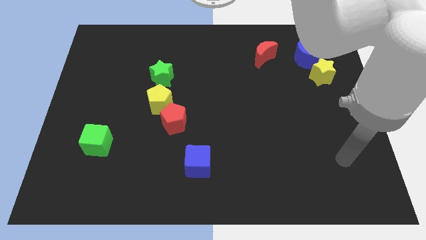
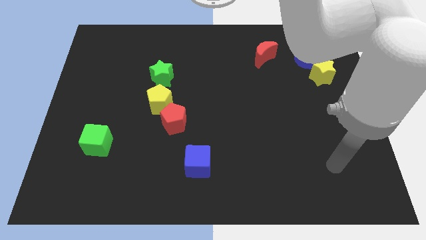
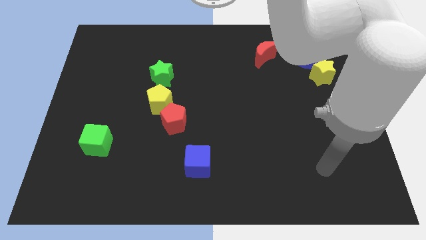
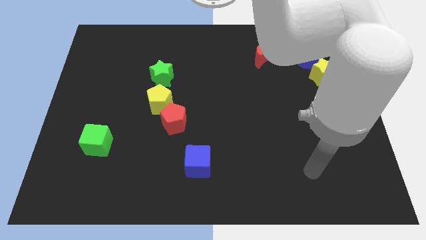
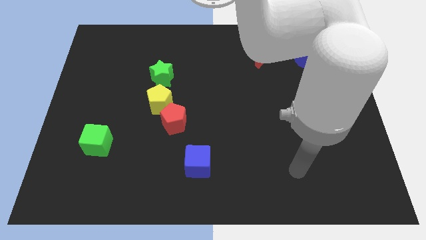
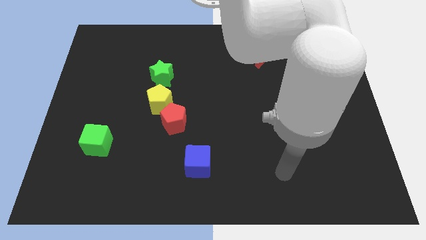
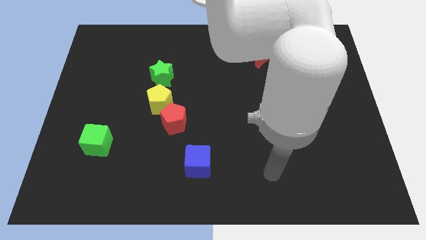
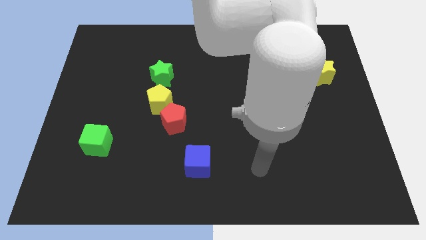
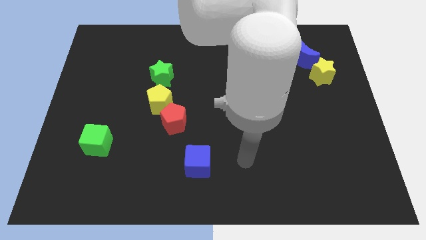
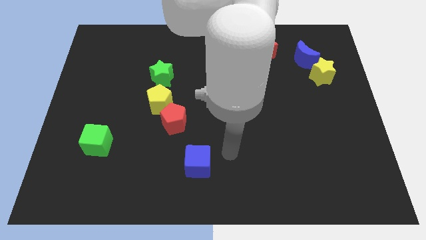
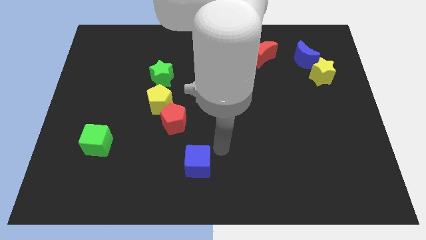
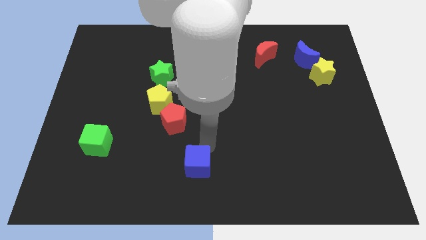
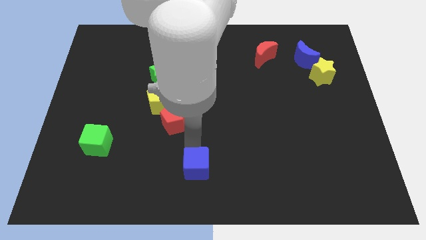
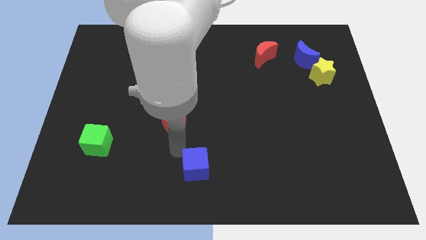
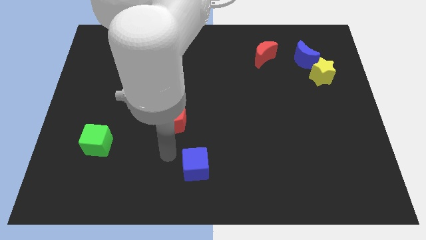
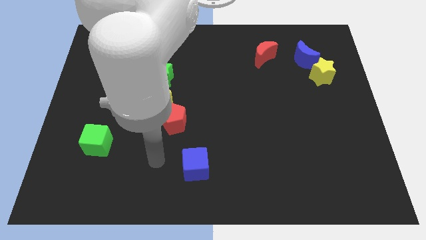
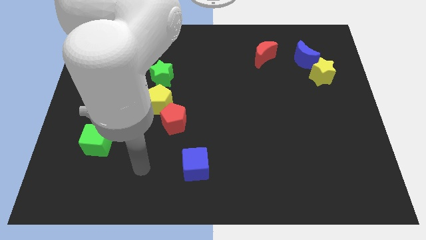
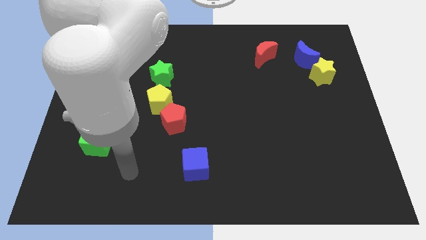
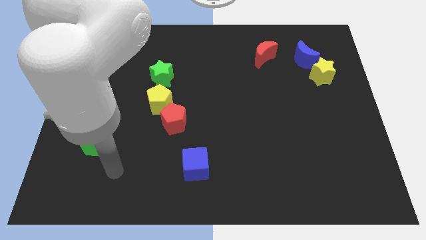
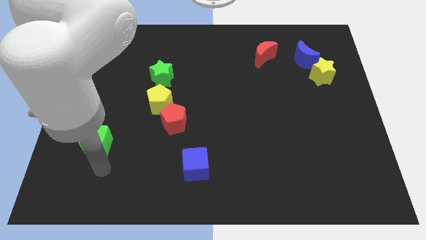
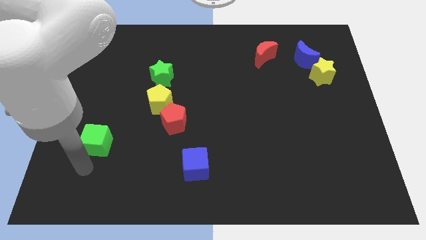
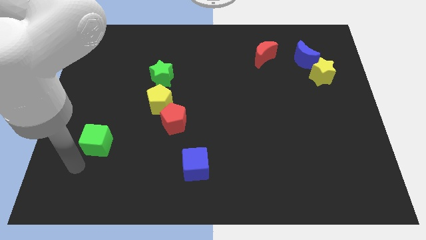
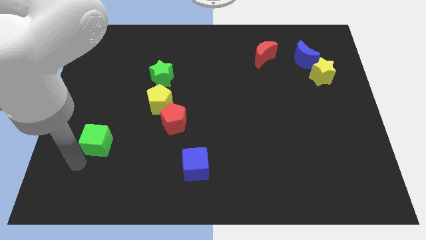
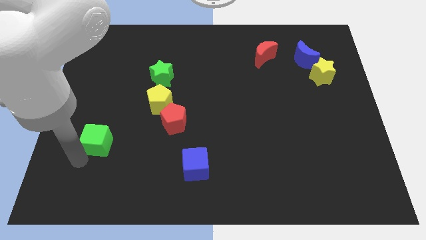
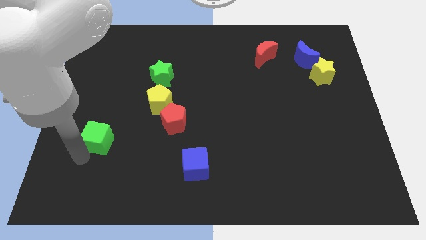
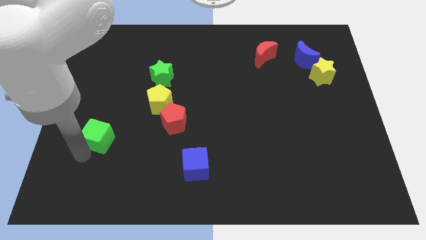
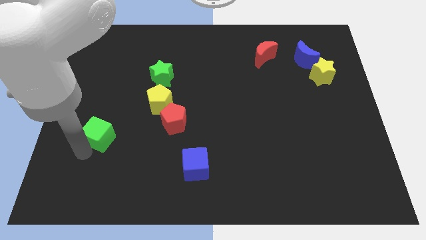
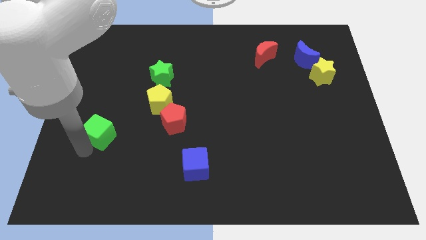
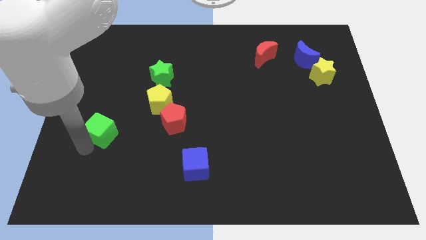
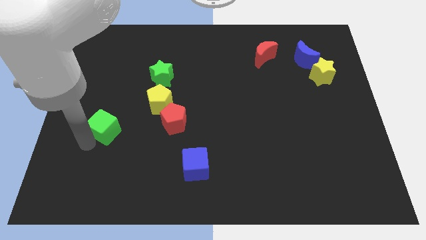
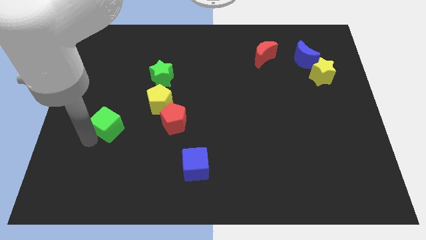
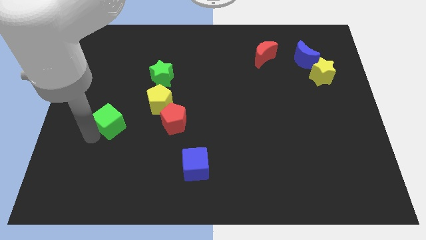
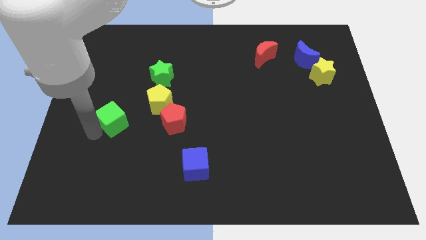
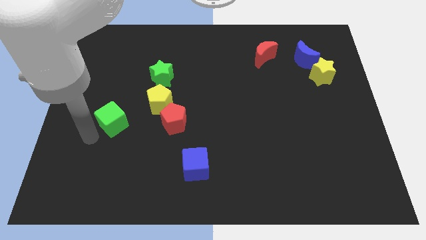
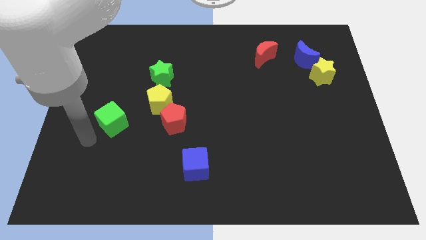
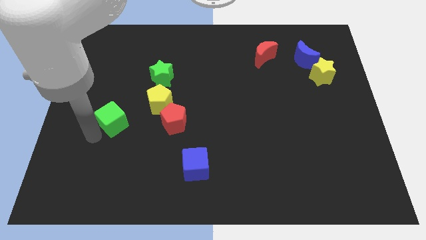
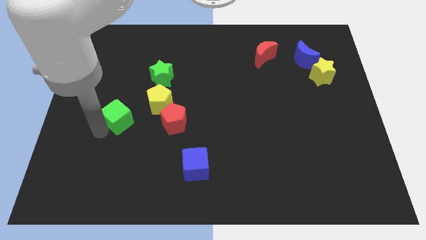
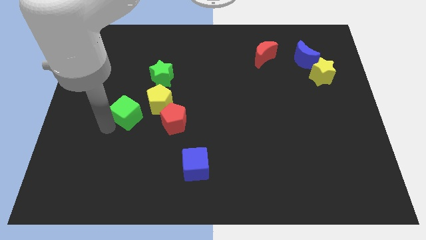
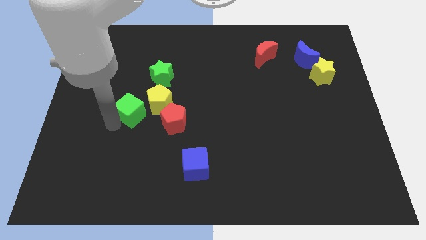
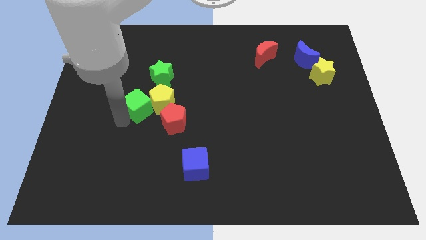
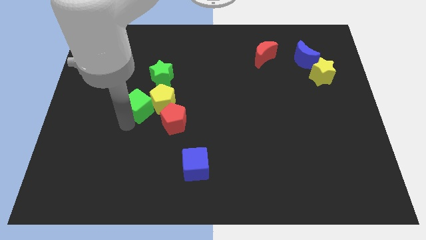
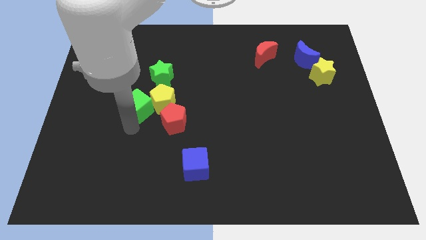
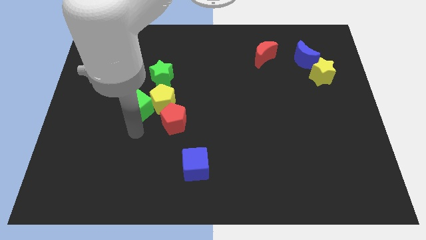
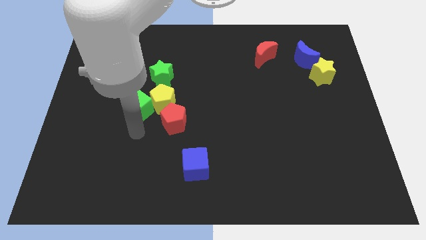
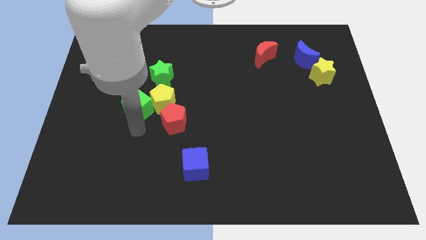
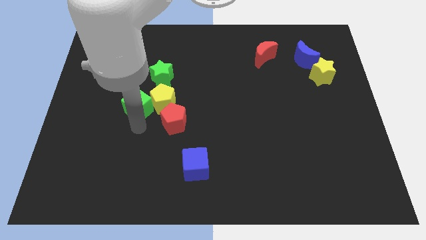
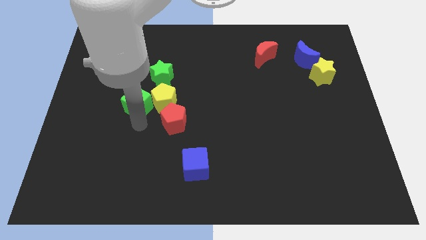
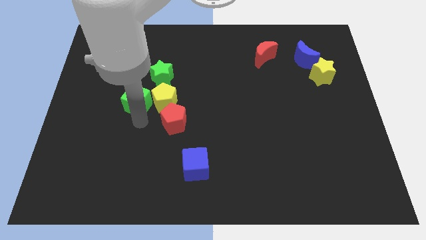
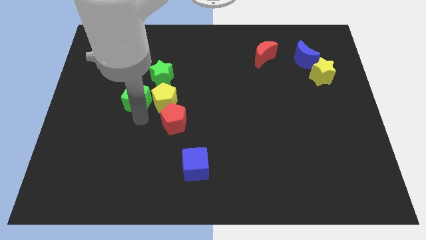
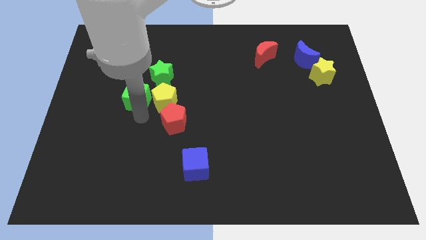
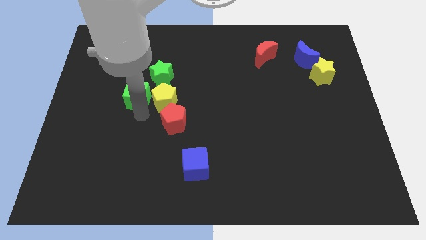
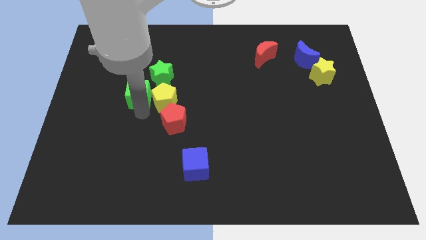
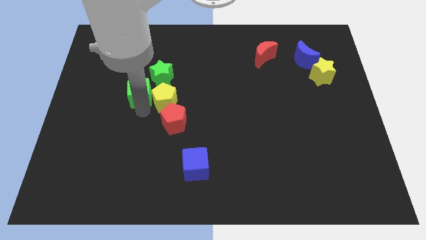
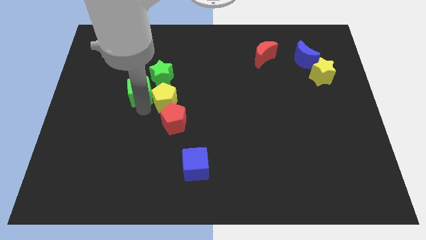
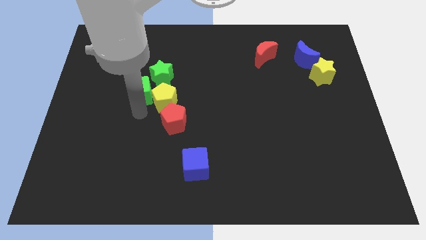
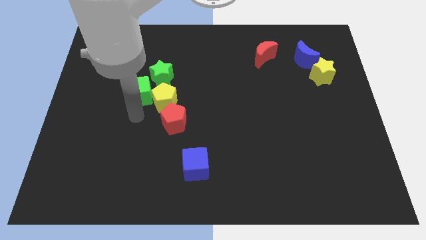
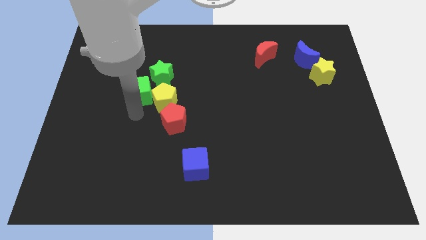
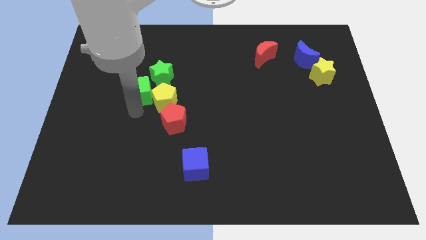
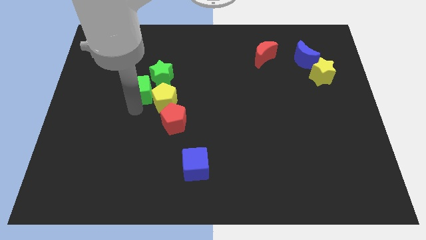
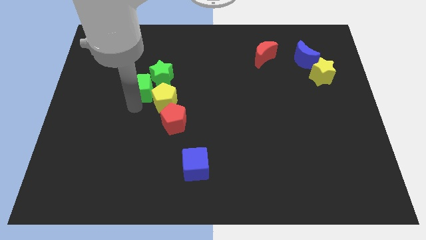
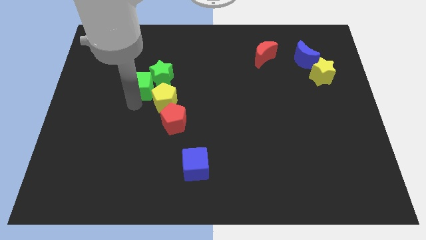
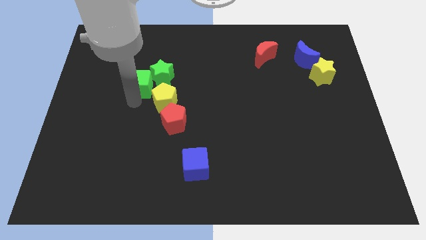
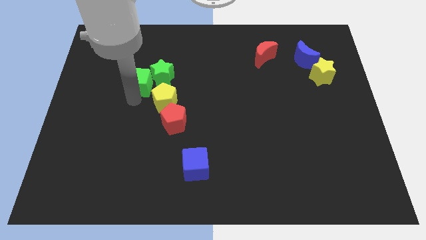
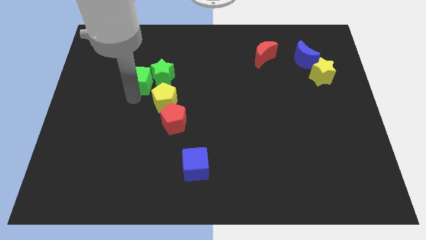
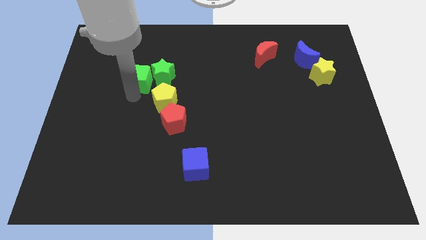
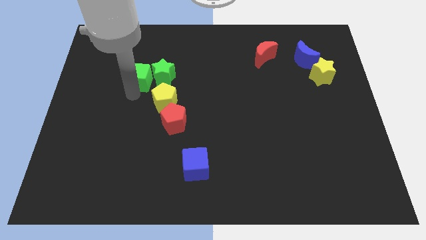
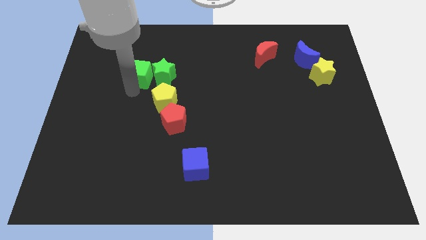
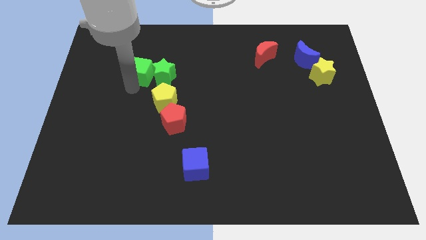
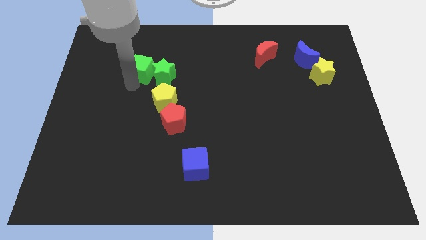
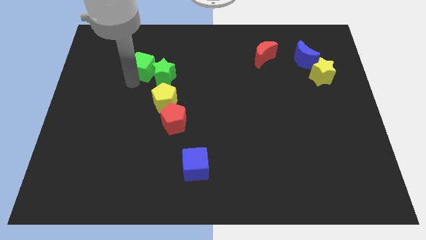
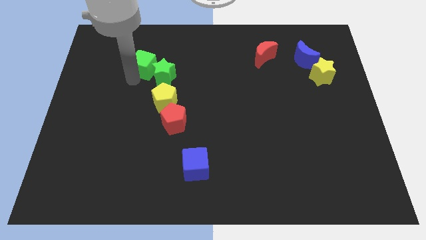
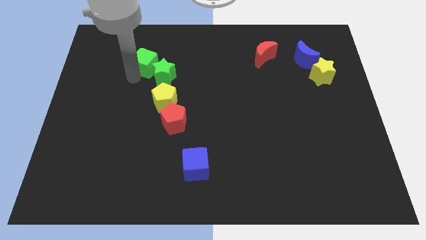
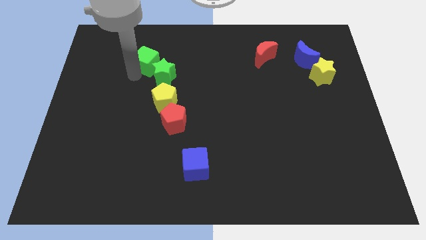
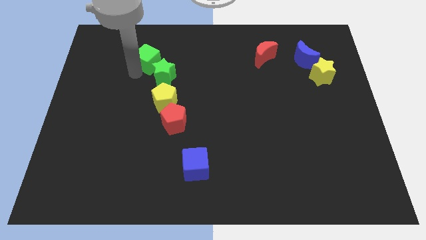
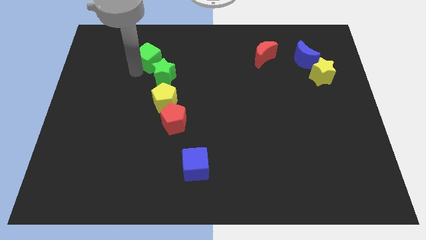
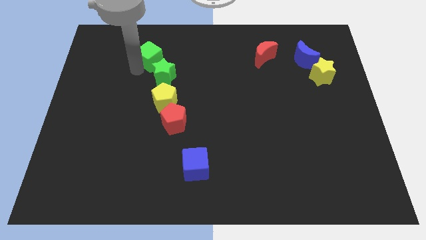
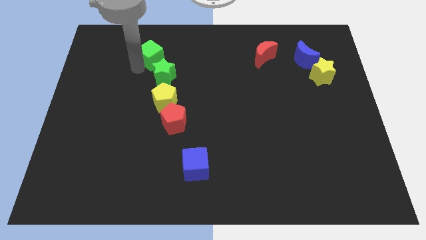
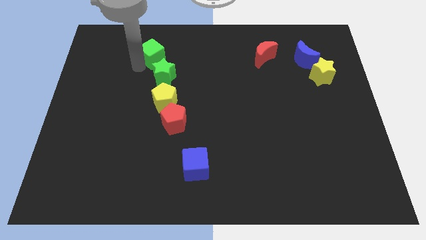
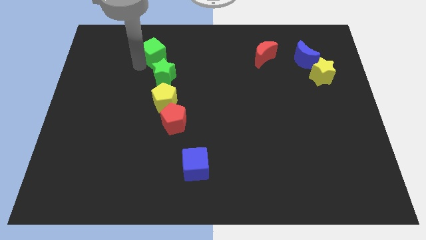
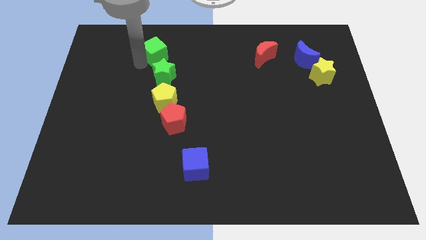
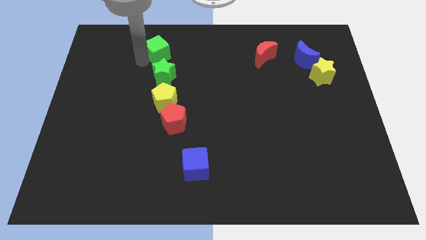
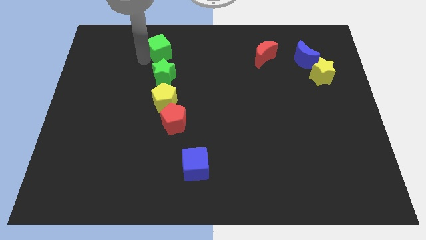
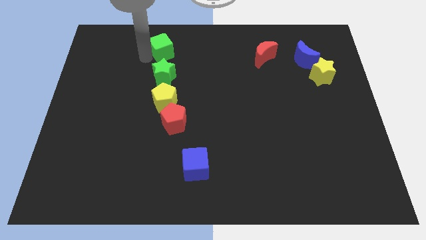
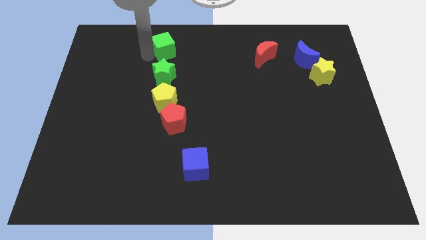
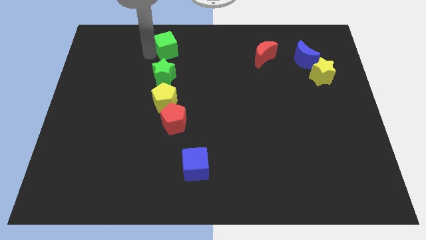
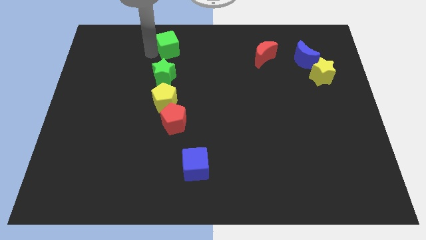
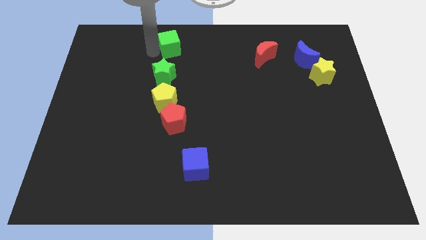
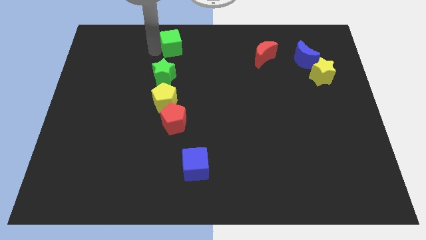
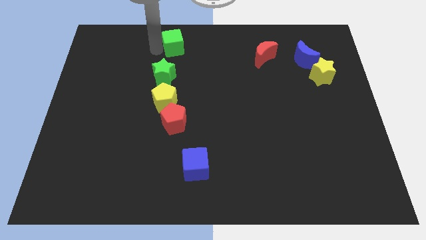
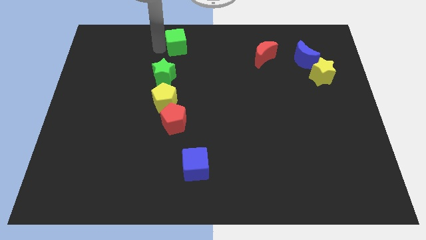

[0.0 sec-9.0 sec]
slide the green cube to the towards your base
